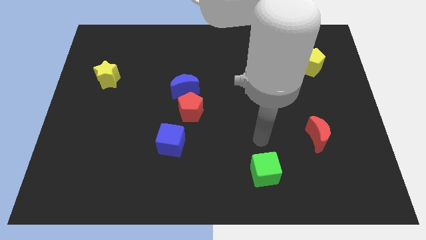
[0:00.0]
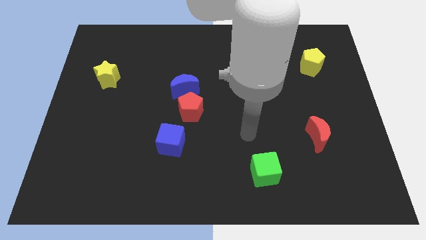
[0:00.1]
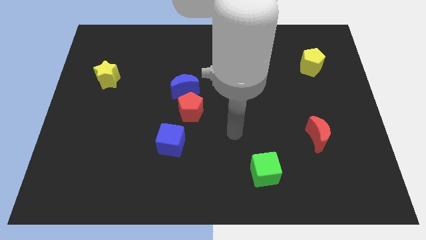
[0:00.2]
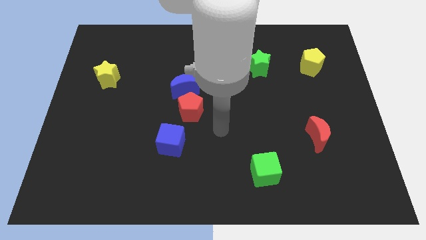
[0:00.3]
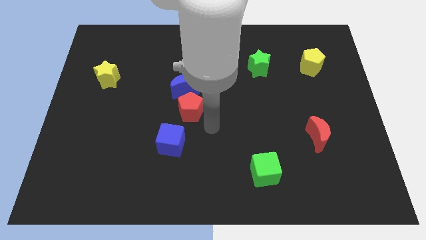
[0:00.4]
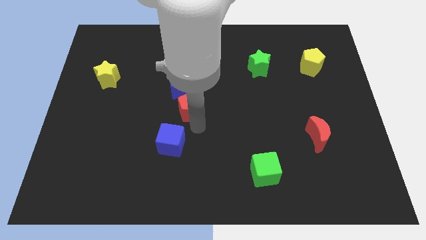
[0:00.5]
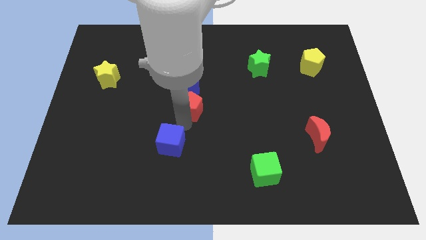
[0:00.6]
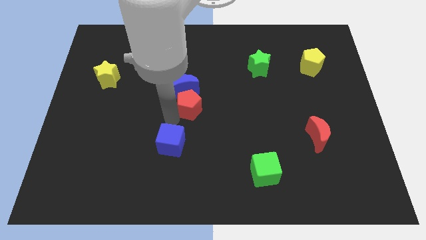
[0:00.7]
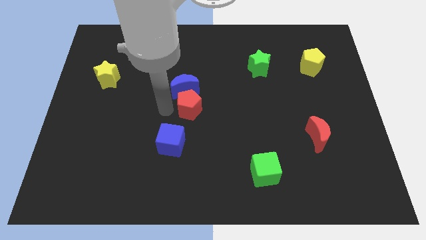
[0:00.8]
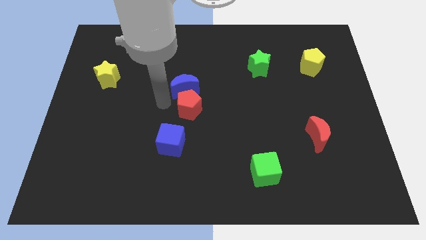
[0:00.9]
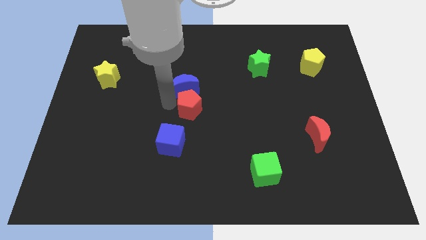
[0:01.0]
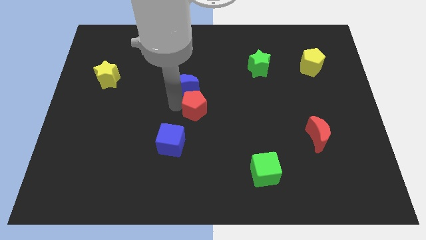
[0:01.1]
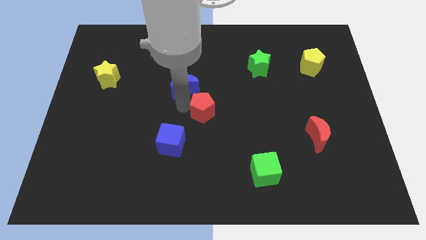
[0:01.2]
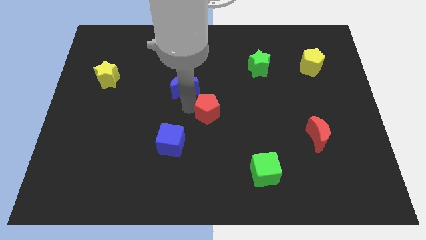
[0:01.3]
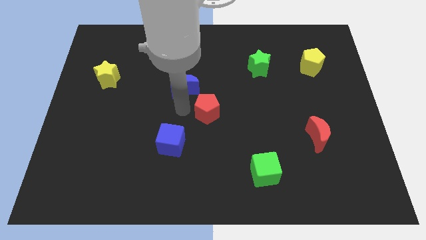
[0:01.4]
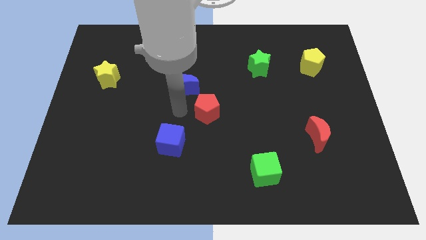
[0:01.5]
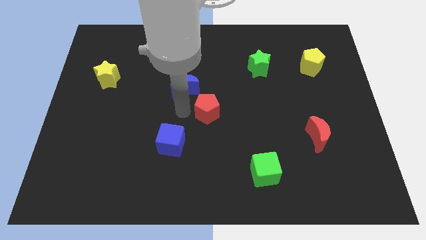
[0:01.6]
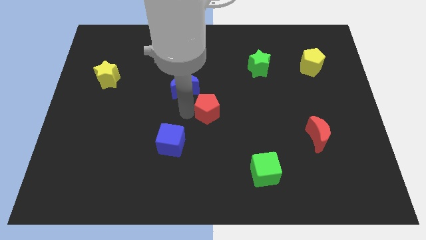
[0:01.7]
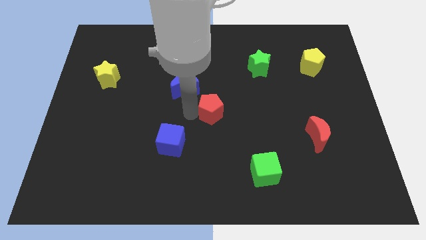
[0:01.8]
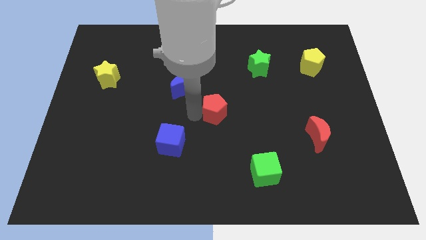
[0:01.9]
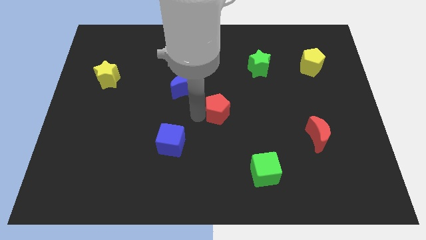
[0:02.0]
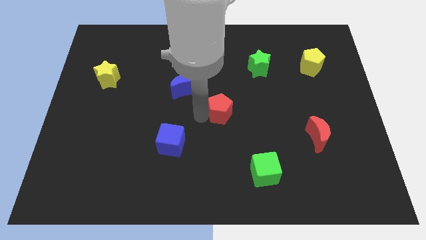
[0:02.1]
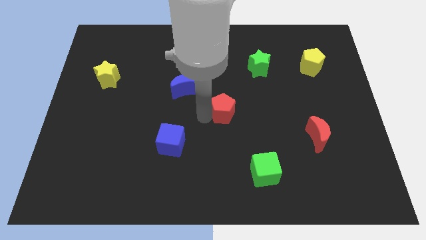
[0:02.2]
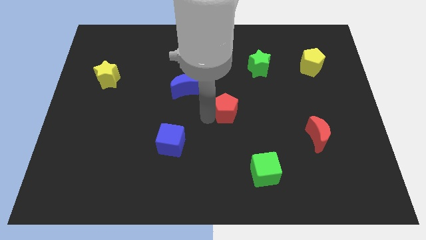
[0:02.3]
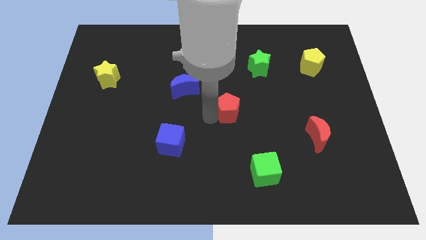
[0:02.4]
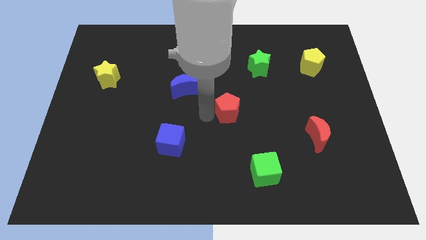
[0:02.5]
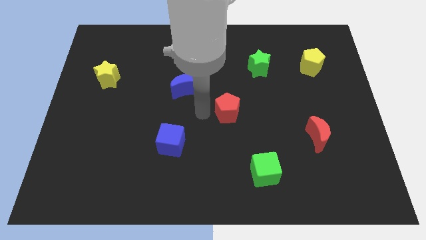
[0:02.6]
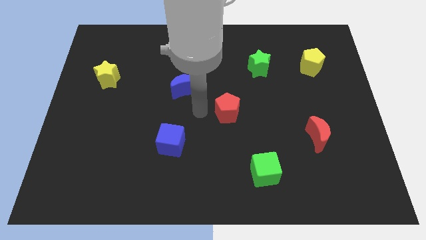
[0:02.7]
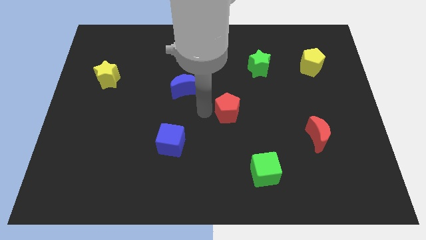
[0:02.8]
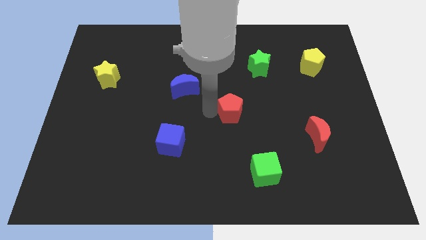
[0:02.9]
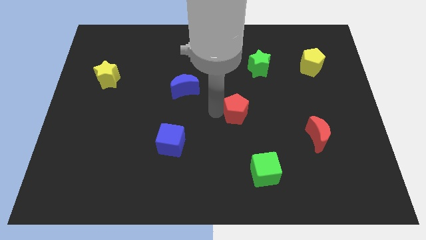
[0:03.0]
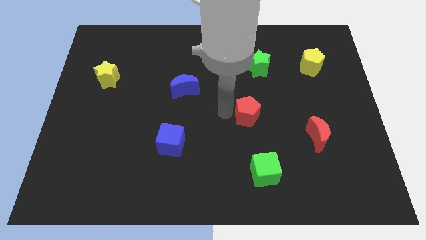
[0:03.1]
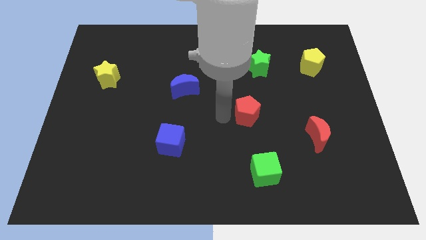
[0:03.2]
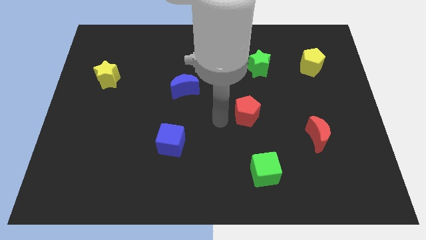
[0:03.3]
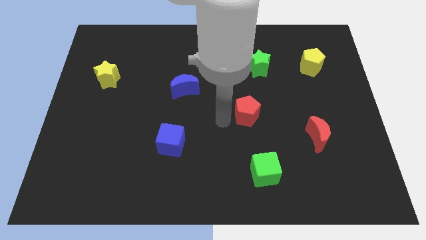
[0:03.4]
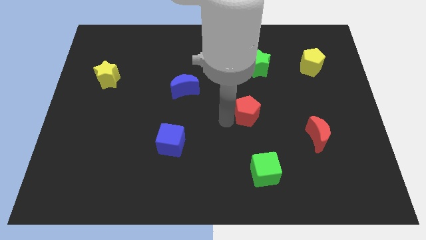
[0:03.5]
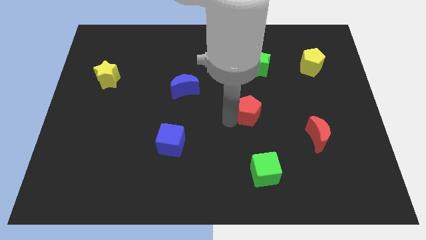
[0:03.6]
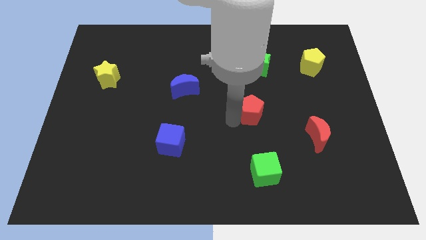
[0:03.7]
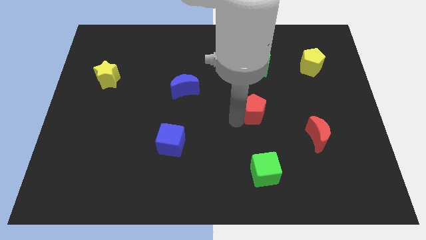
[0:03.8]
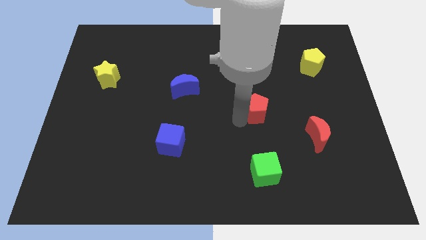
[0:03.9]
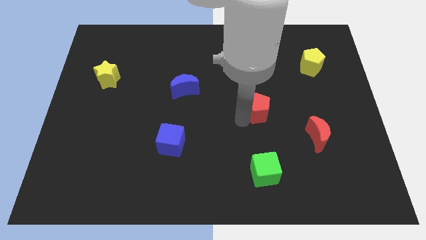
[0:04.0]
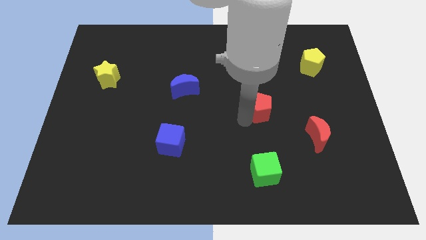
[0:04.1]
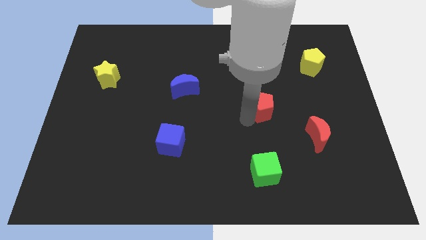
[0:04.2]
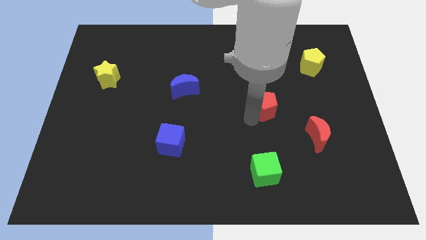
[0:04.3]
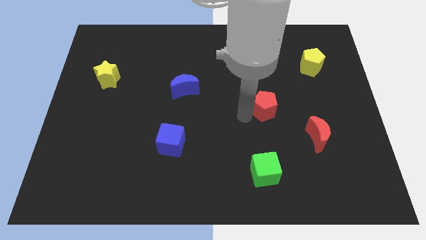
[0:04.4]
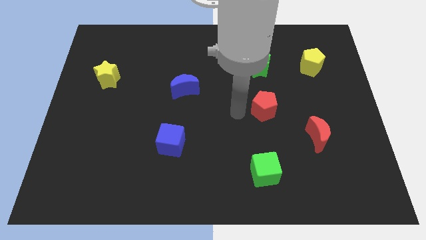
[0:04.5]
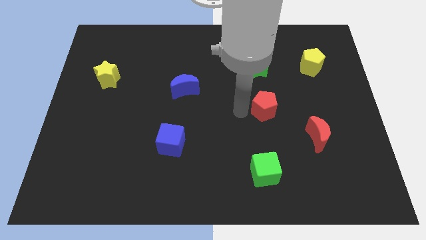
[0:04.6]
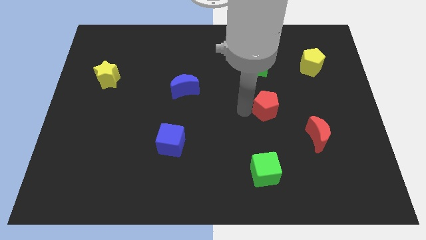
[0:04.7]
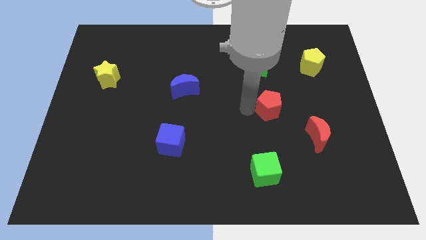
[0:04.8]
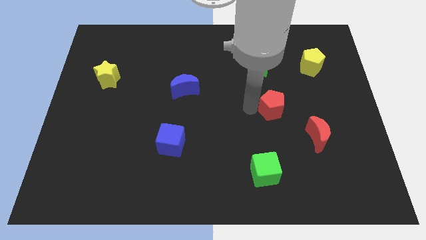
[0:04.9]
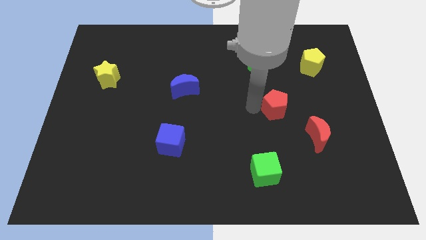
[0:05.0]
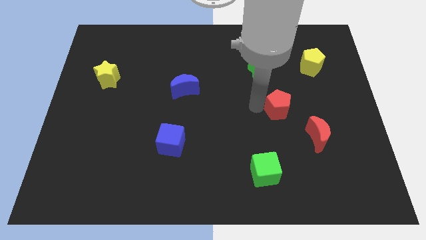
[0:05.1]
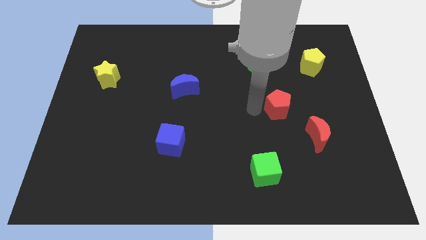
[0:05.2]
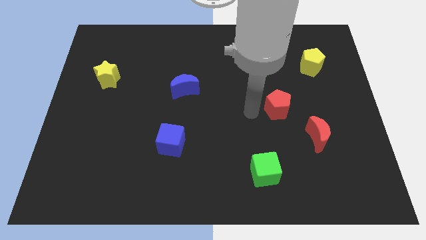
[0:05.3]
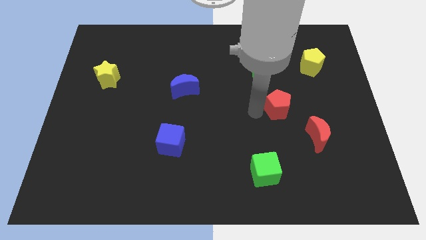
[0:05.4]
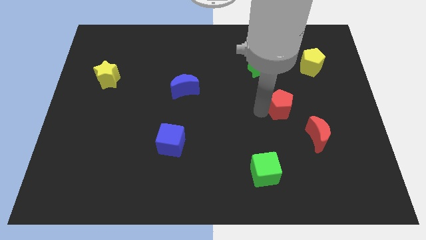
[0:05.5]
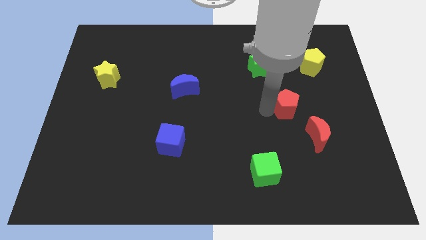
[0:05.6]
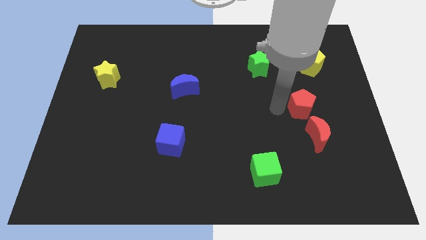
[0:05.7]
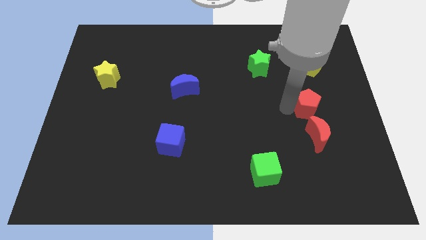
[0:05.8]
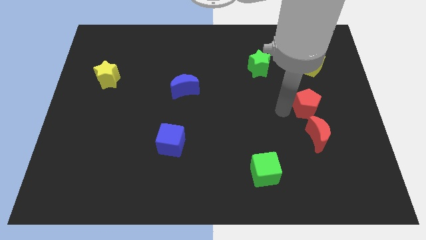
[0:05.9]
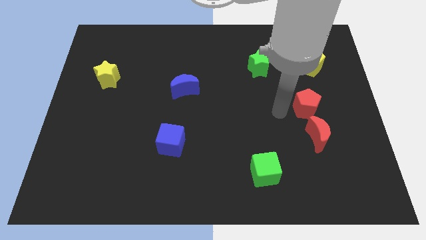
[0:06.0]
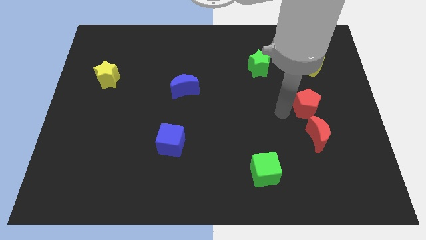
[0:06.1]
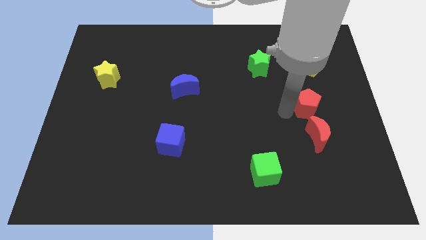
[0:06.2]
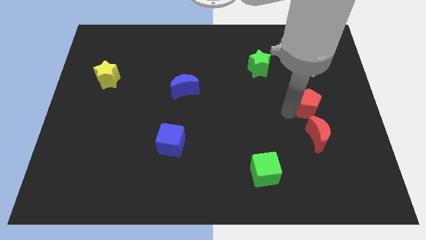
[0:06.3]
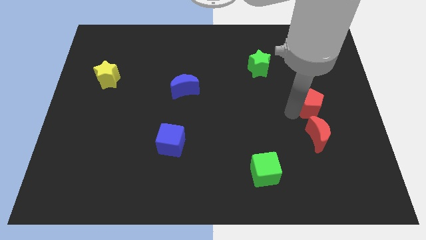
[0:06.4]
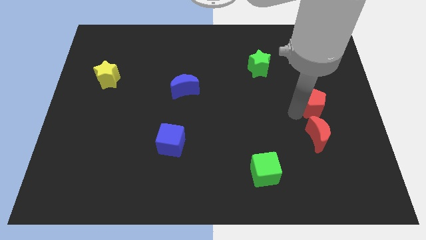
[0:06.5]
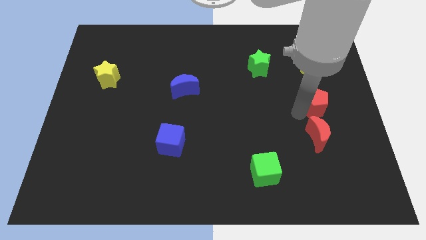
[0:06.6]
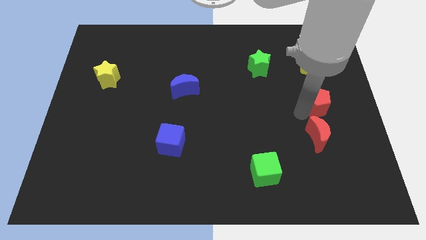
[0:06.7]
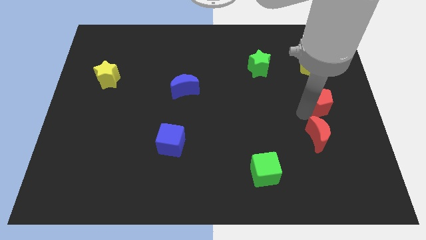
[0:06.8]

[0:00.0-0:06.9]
put the red pentagon to the right side of the board

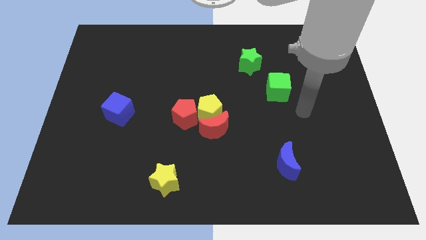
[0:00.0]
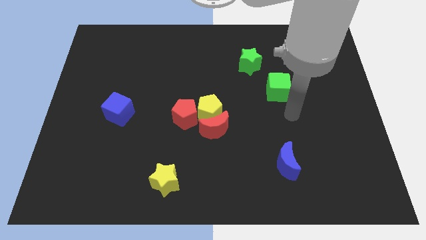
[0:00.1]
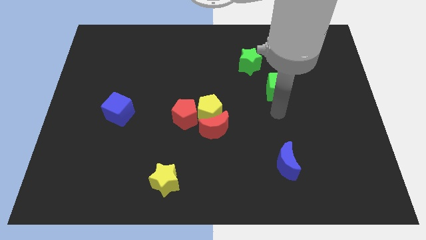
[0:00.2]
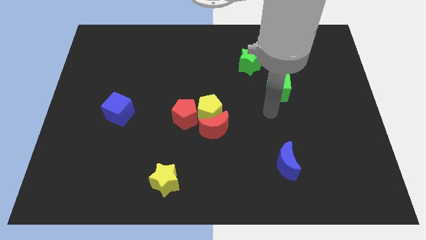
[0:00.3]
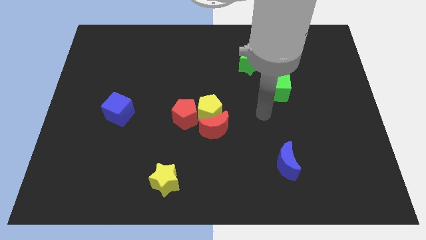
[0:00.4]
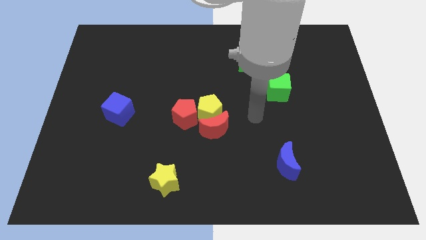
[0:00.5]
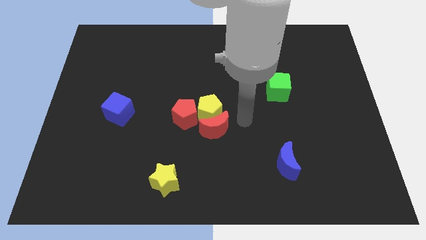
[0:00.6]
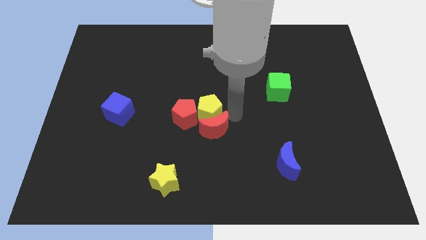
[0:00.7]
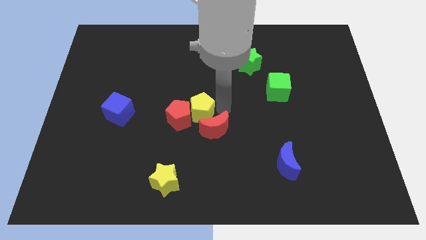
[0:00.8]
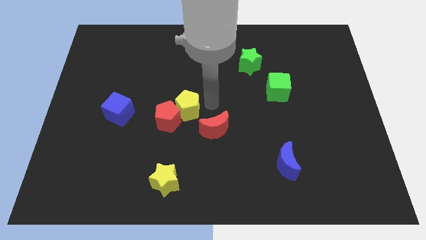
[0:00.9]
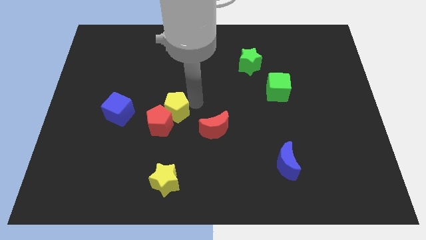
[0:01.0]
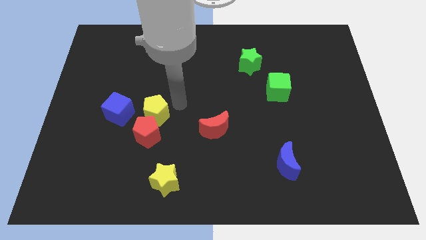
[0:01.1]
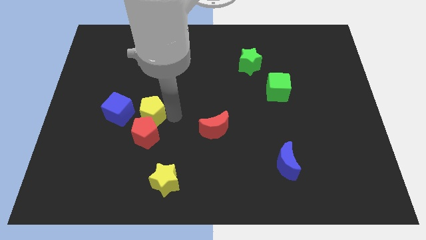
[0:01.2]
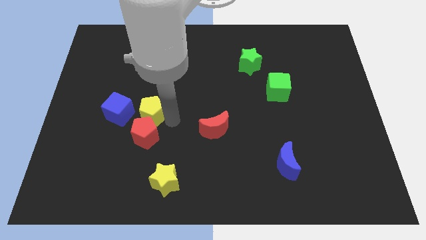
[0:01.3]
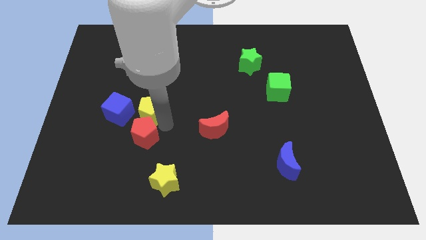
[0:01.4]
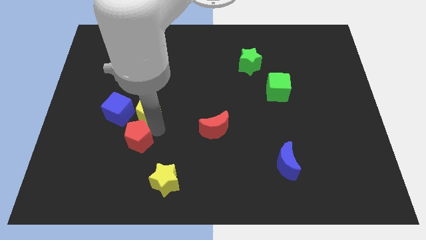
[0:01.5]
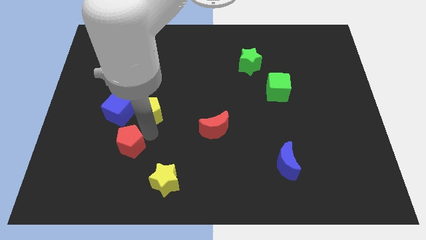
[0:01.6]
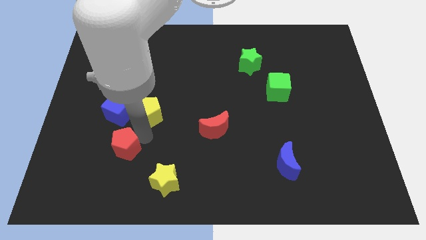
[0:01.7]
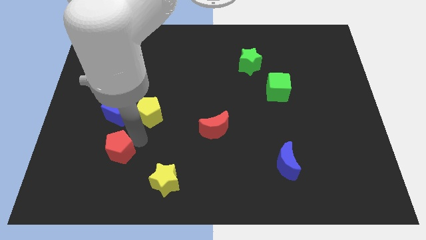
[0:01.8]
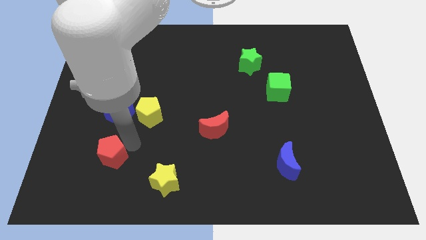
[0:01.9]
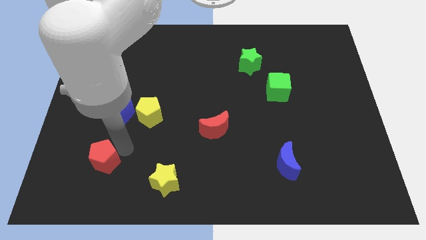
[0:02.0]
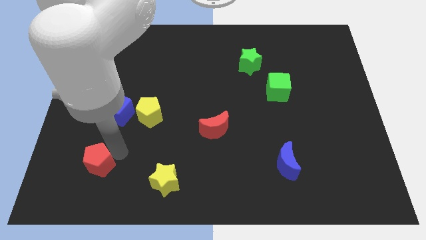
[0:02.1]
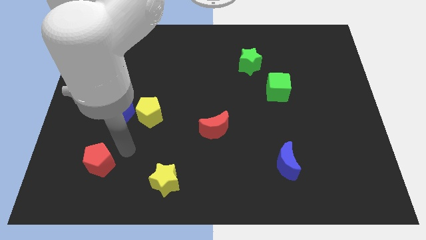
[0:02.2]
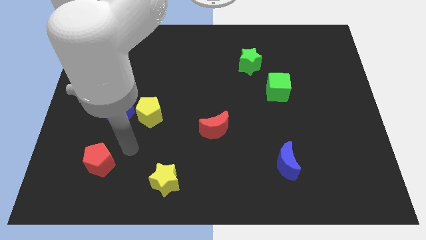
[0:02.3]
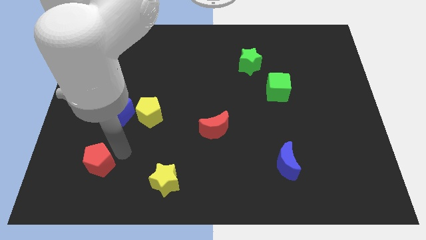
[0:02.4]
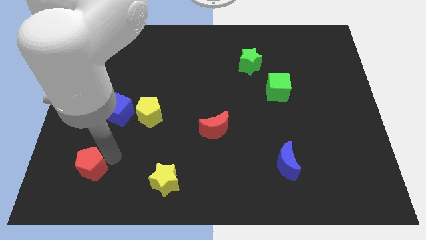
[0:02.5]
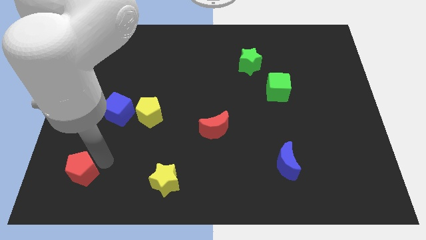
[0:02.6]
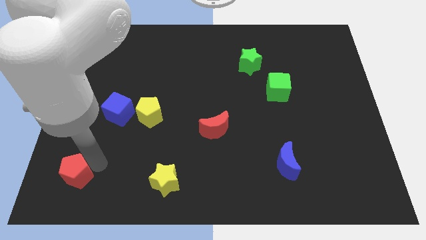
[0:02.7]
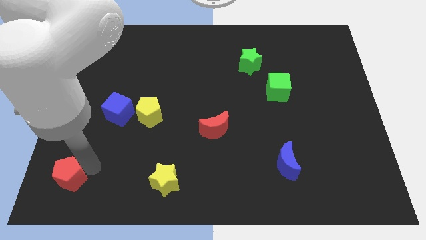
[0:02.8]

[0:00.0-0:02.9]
slide the red pentagon to the lower left corner
